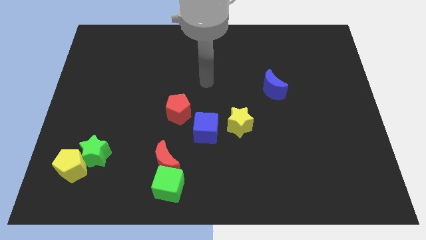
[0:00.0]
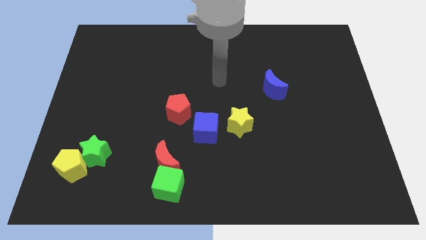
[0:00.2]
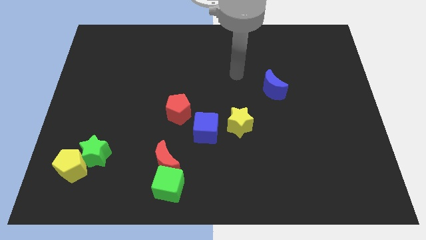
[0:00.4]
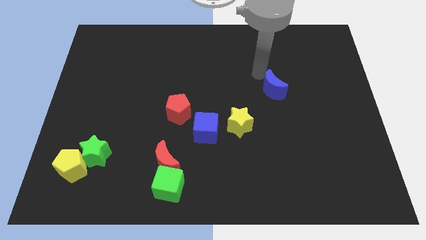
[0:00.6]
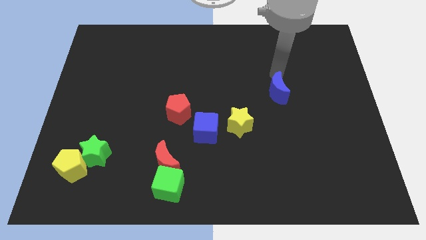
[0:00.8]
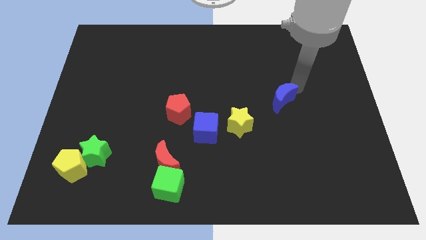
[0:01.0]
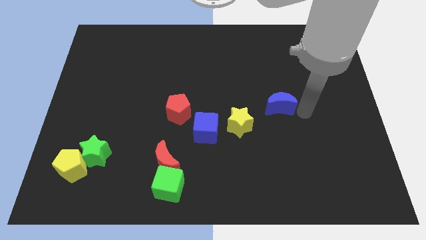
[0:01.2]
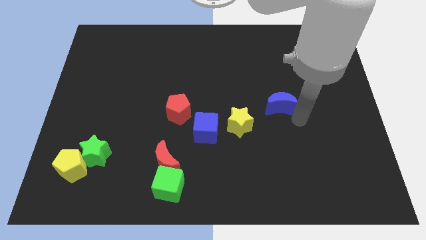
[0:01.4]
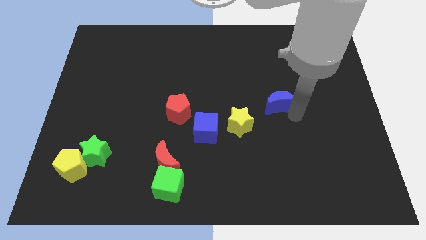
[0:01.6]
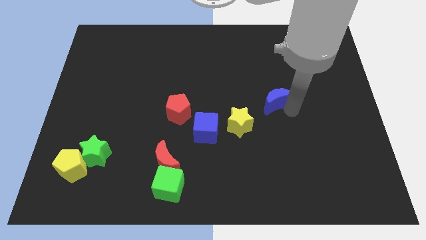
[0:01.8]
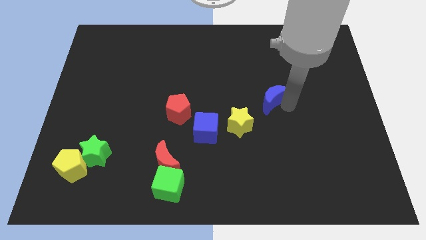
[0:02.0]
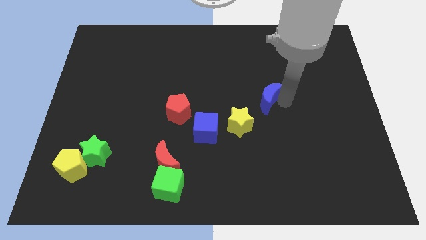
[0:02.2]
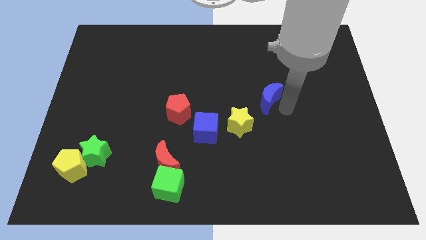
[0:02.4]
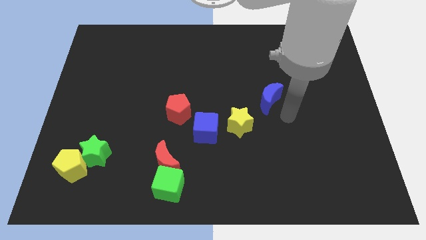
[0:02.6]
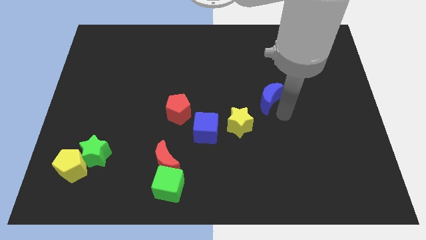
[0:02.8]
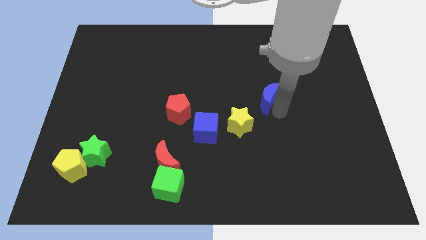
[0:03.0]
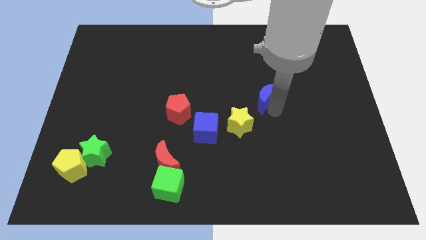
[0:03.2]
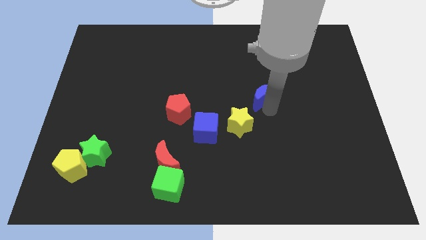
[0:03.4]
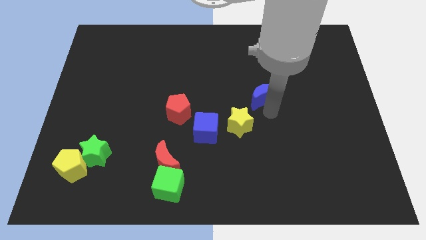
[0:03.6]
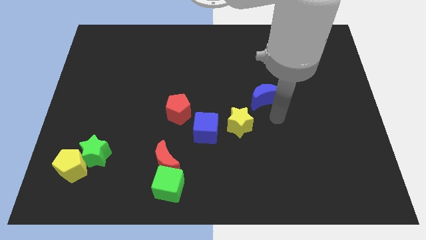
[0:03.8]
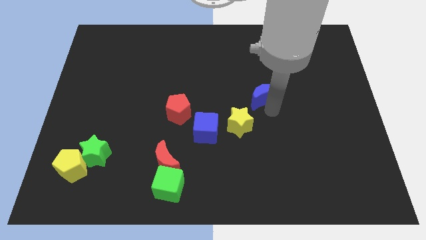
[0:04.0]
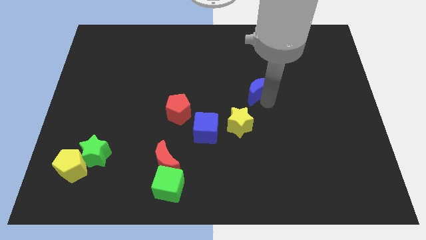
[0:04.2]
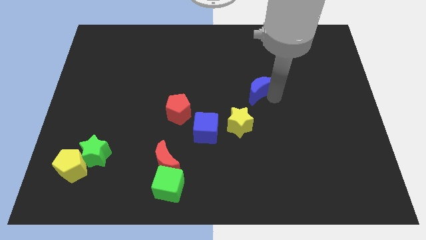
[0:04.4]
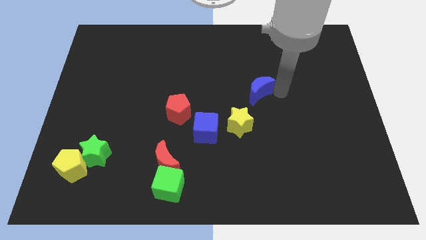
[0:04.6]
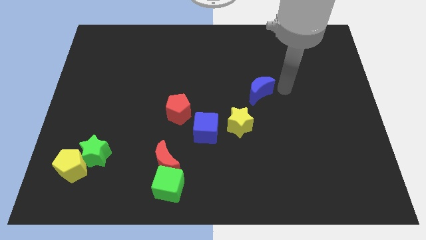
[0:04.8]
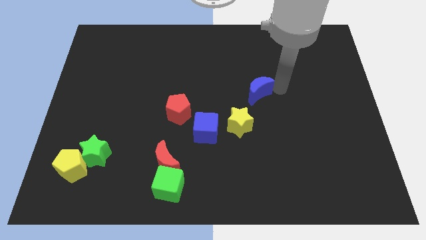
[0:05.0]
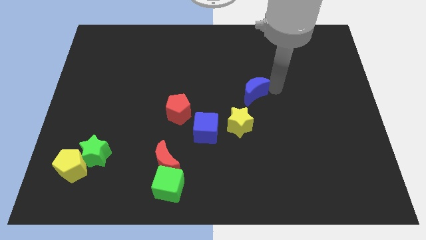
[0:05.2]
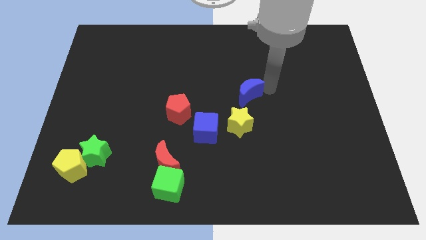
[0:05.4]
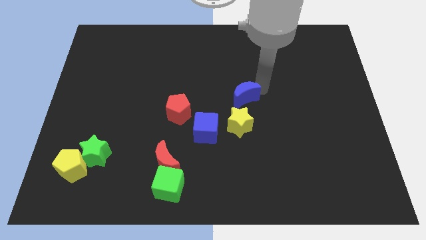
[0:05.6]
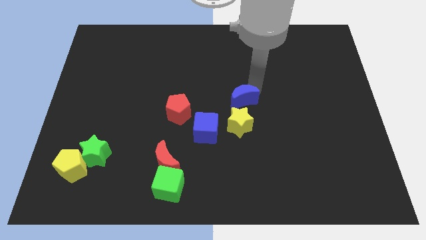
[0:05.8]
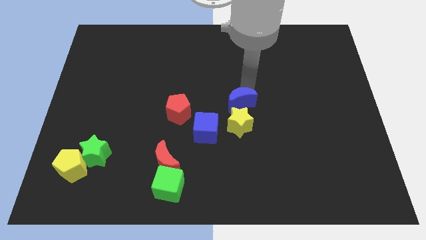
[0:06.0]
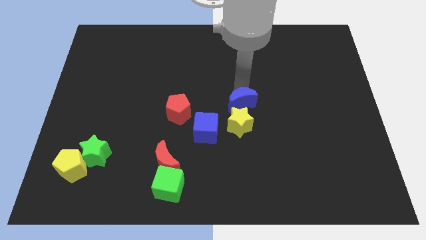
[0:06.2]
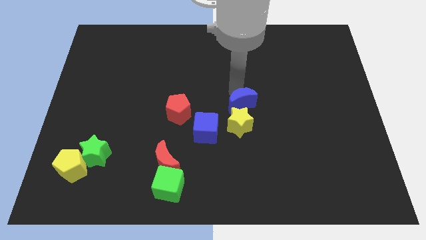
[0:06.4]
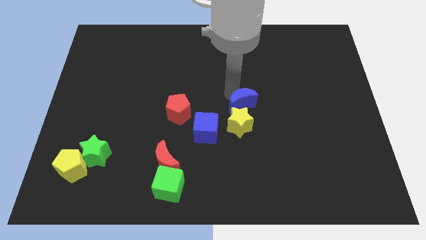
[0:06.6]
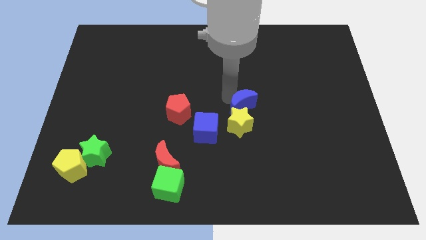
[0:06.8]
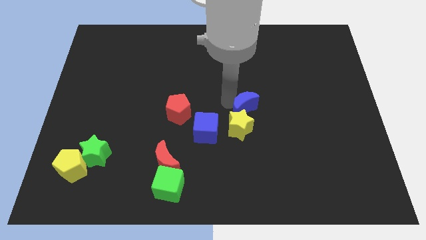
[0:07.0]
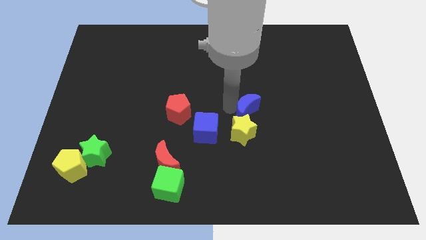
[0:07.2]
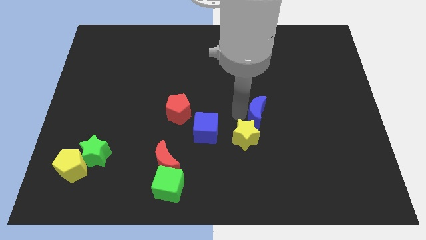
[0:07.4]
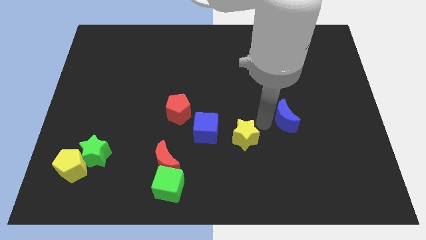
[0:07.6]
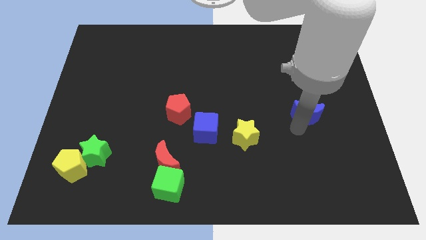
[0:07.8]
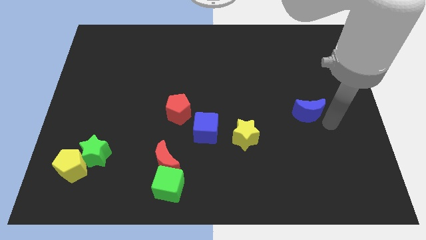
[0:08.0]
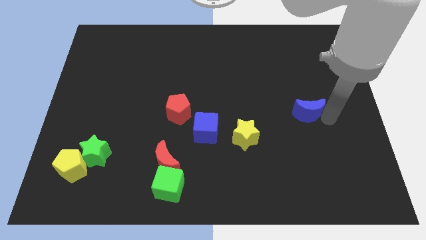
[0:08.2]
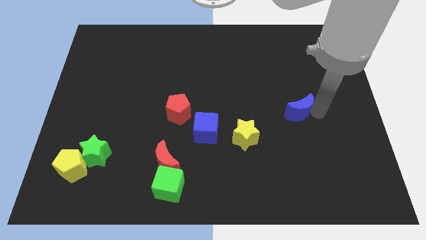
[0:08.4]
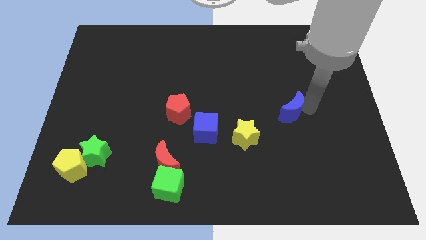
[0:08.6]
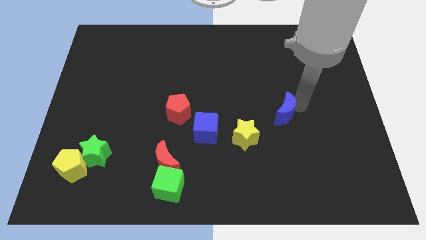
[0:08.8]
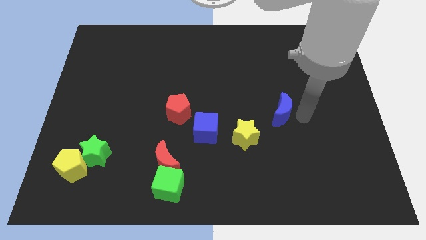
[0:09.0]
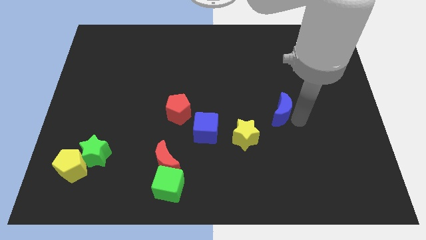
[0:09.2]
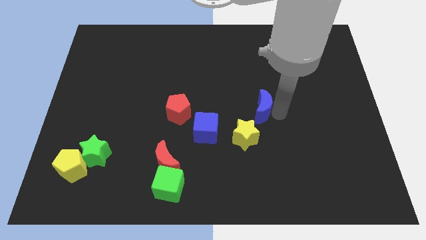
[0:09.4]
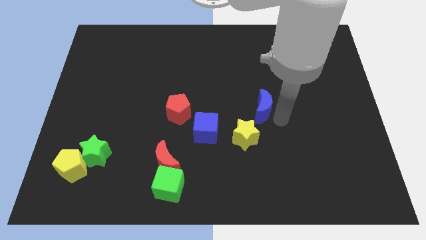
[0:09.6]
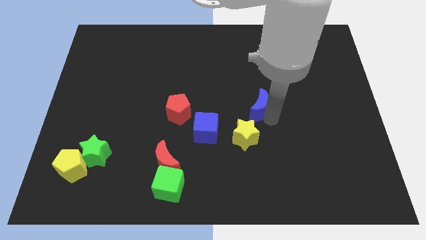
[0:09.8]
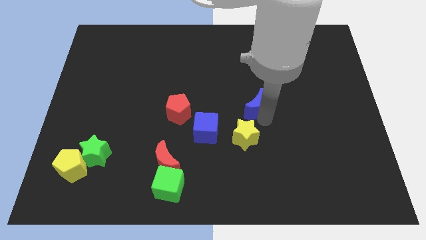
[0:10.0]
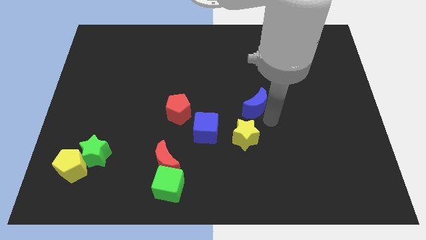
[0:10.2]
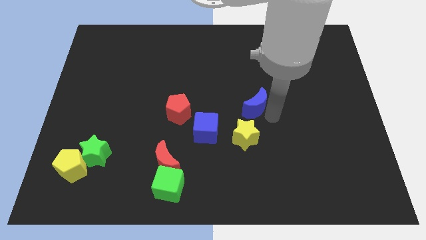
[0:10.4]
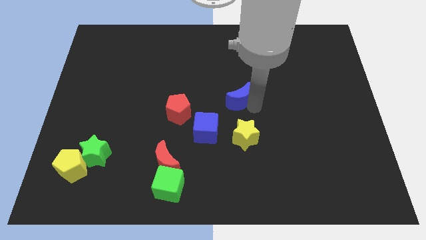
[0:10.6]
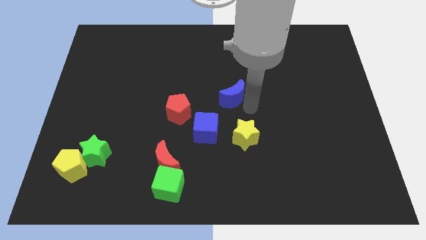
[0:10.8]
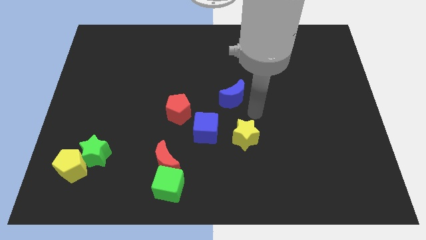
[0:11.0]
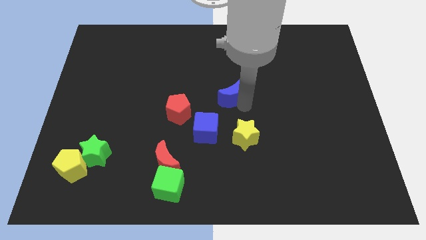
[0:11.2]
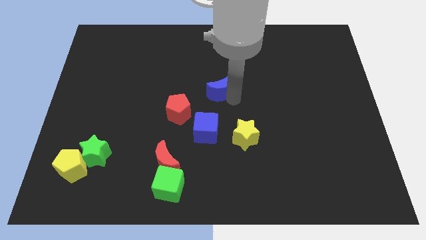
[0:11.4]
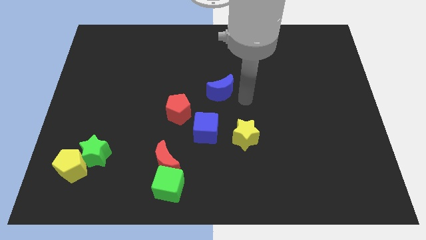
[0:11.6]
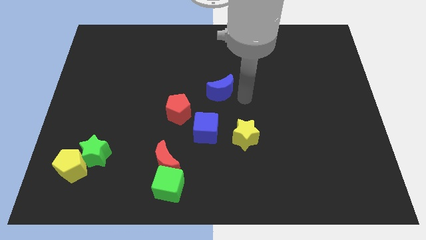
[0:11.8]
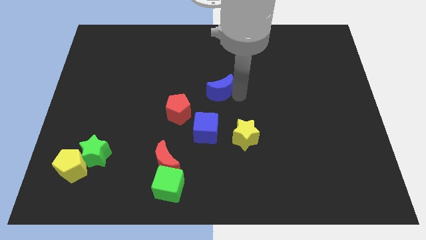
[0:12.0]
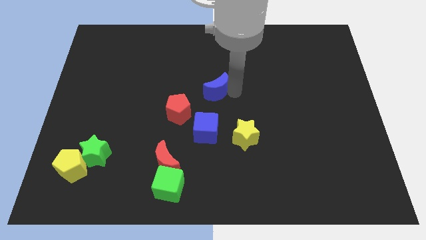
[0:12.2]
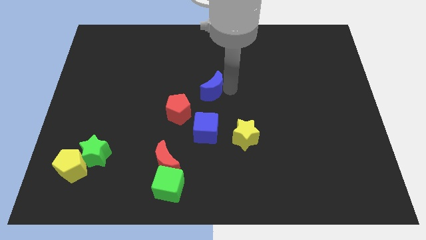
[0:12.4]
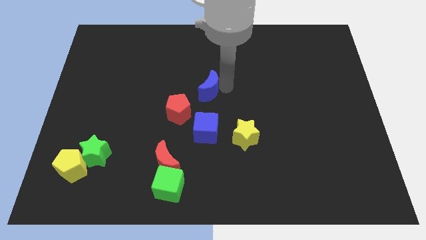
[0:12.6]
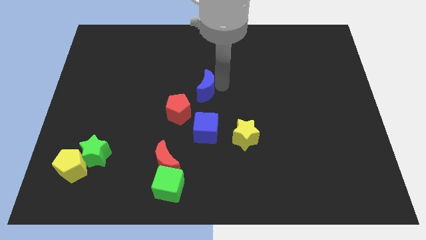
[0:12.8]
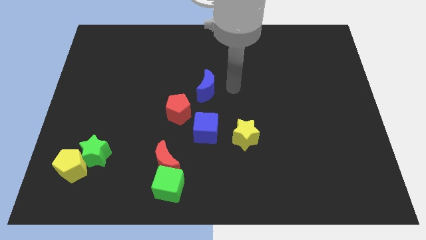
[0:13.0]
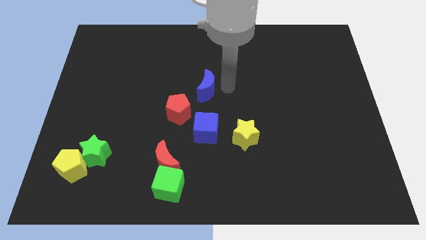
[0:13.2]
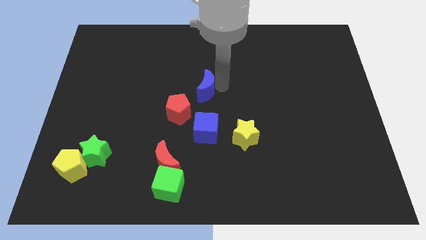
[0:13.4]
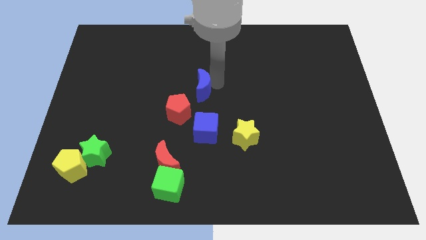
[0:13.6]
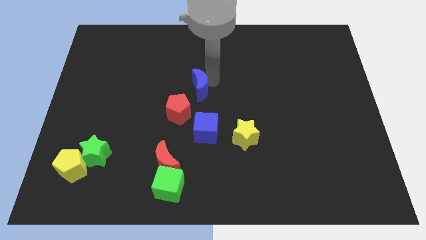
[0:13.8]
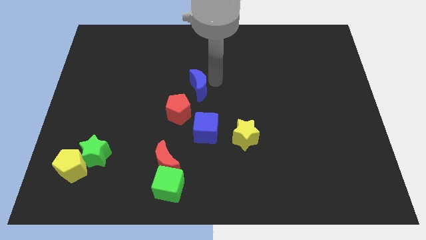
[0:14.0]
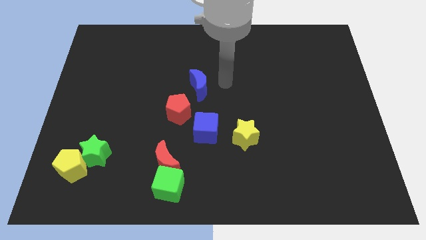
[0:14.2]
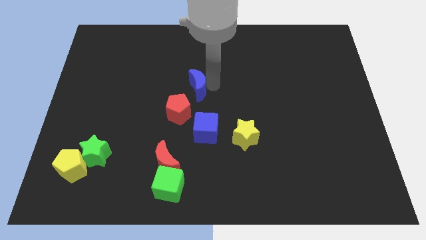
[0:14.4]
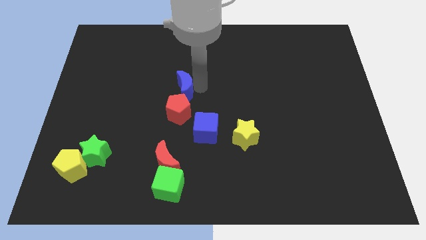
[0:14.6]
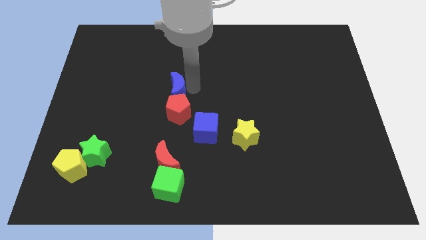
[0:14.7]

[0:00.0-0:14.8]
move the blue moon to the top left side of the red pentagon

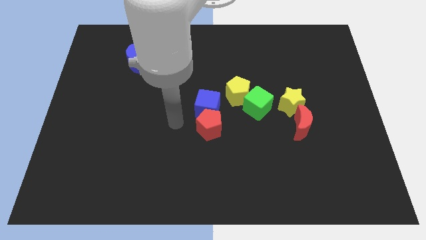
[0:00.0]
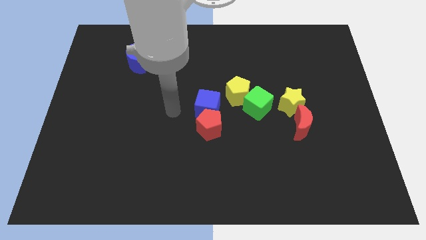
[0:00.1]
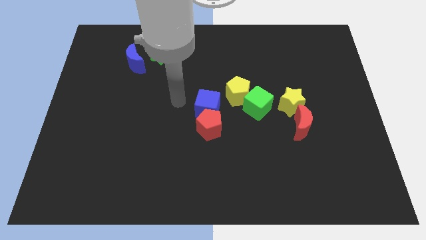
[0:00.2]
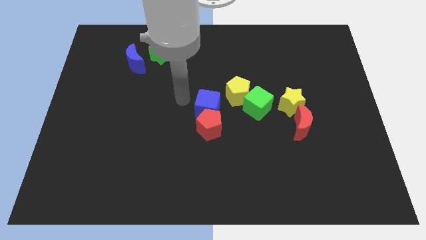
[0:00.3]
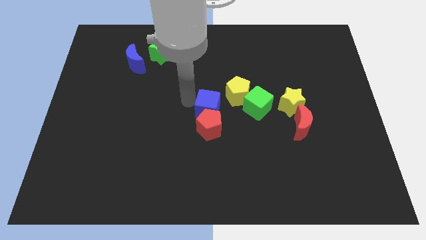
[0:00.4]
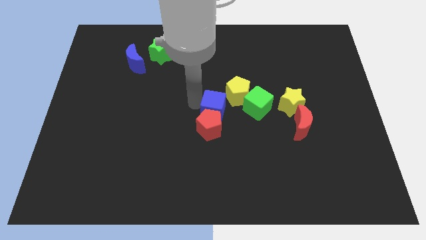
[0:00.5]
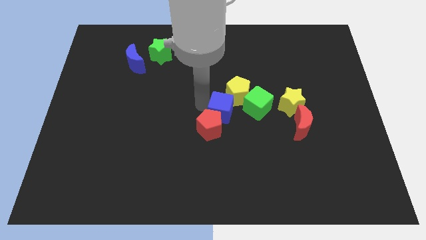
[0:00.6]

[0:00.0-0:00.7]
put the blue cube below the yellow pentagon
